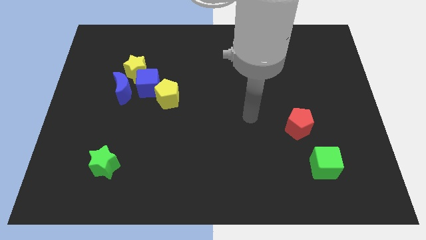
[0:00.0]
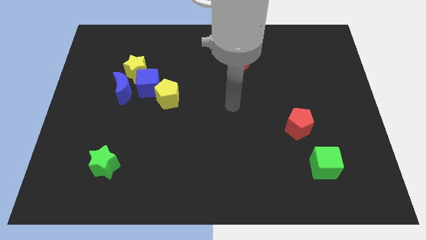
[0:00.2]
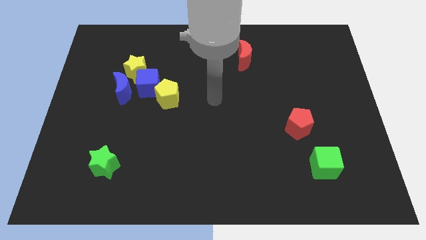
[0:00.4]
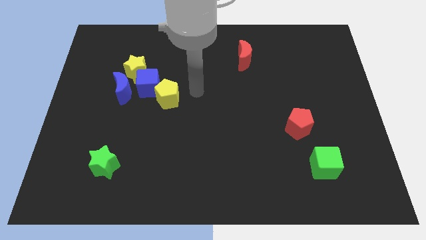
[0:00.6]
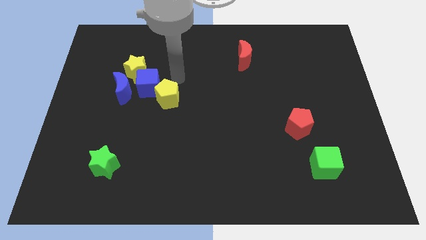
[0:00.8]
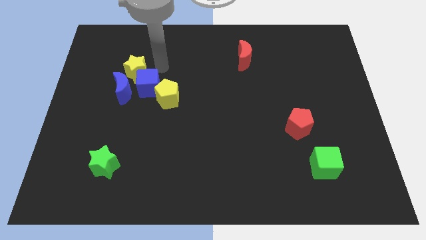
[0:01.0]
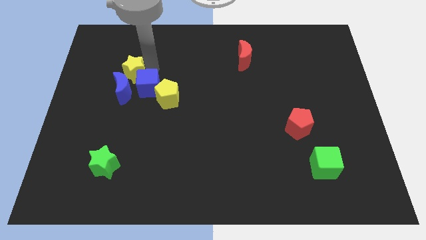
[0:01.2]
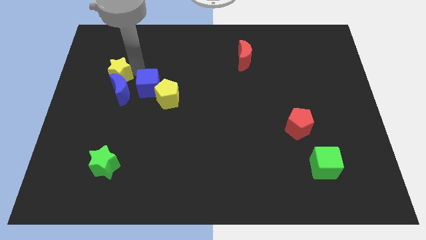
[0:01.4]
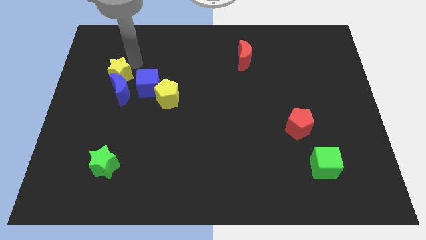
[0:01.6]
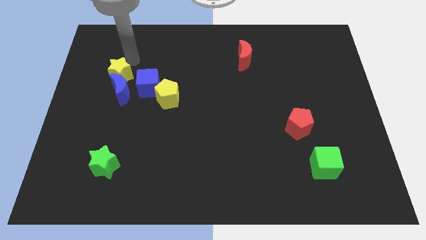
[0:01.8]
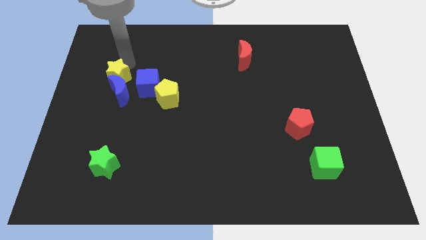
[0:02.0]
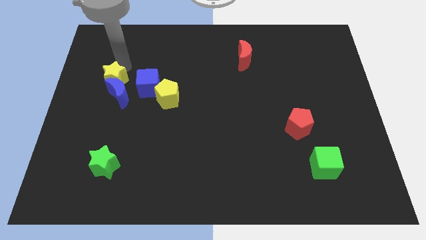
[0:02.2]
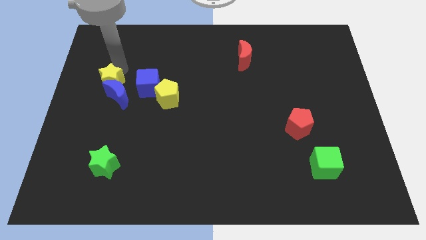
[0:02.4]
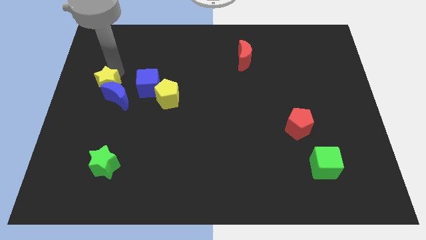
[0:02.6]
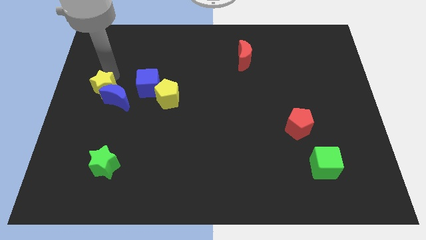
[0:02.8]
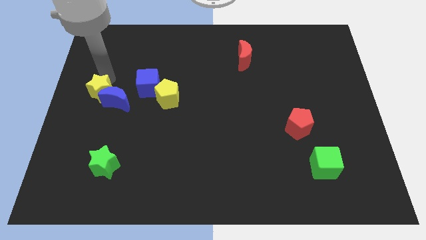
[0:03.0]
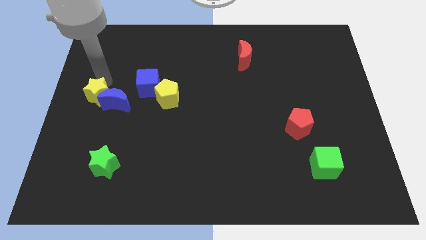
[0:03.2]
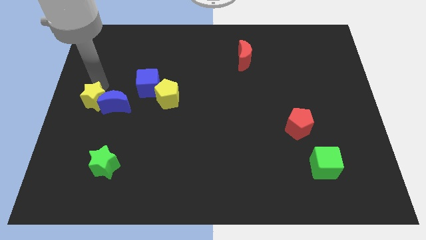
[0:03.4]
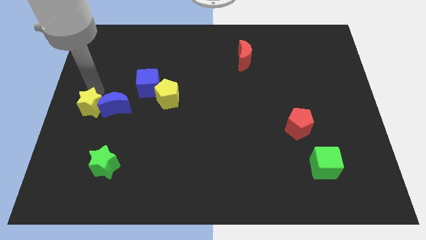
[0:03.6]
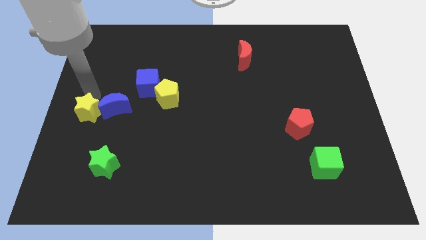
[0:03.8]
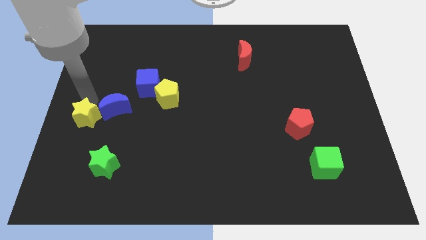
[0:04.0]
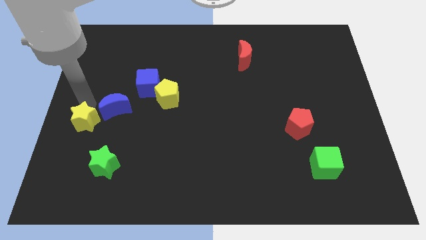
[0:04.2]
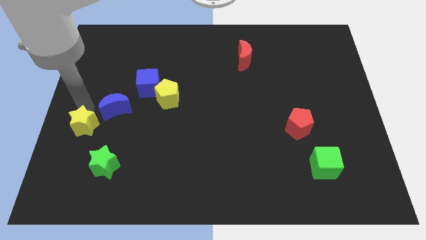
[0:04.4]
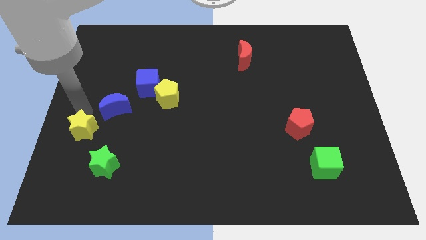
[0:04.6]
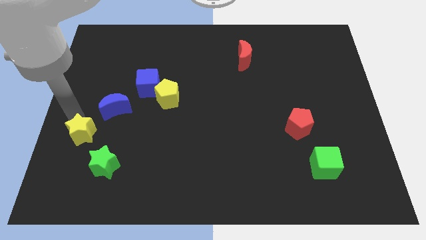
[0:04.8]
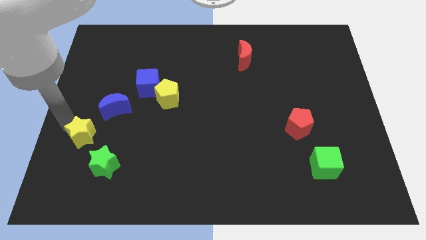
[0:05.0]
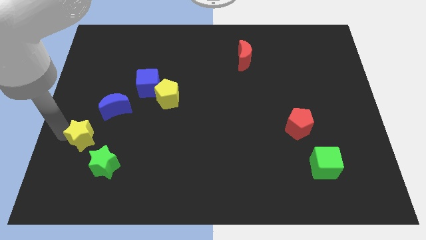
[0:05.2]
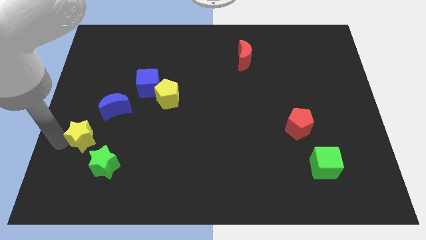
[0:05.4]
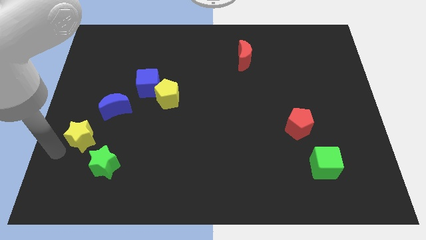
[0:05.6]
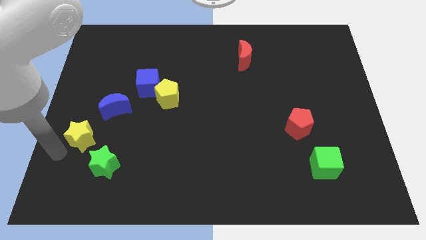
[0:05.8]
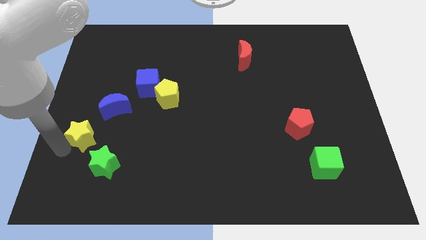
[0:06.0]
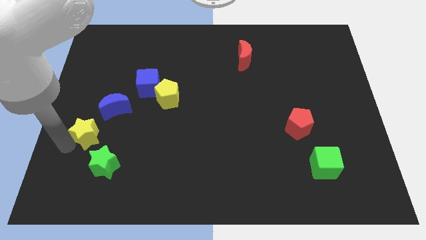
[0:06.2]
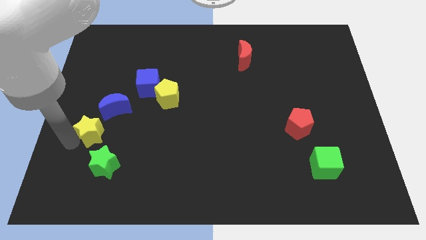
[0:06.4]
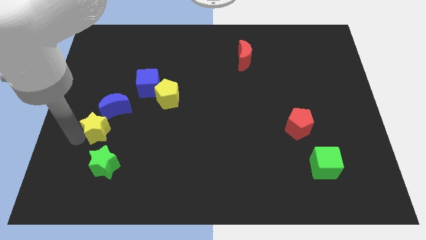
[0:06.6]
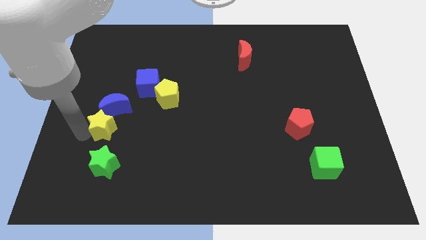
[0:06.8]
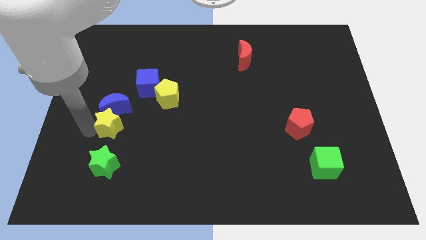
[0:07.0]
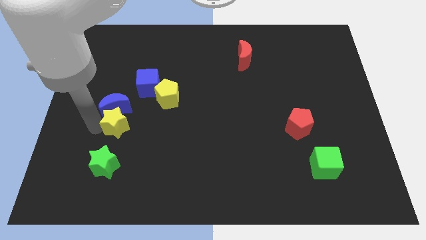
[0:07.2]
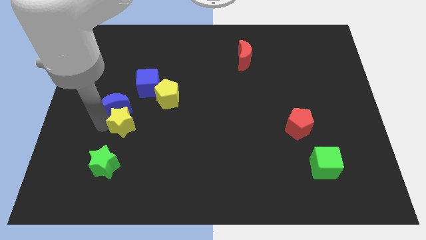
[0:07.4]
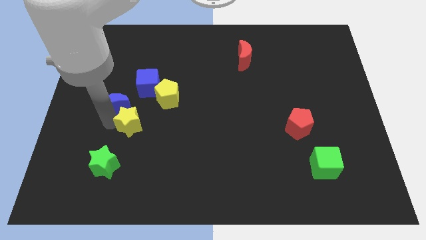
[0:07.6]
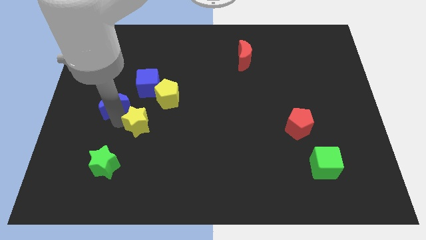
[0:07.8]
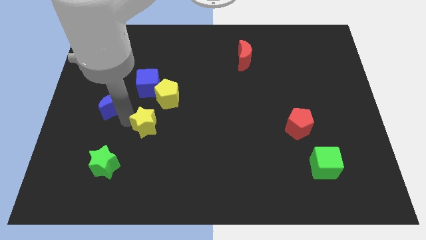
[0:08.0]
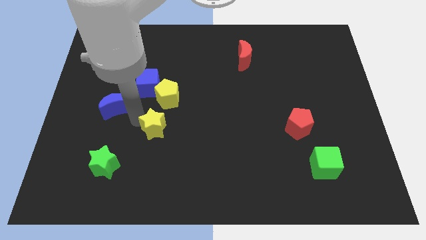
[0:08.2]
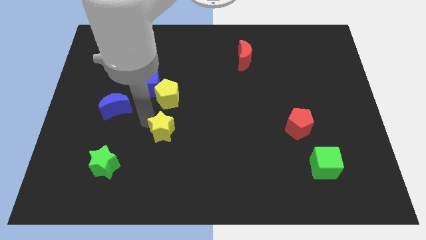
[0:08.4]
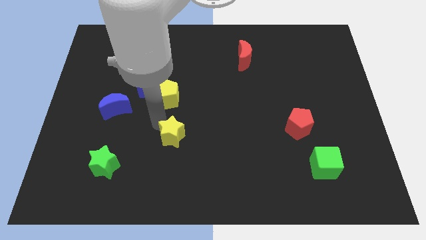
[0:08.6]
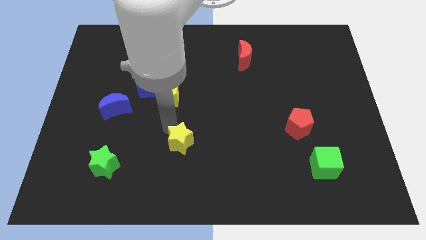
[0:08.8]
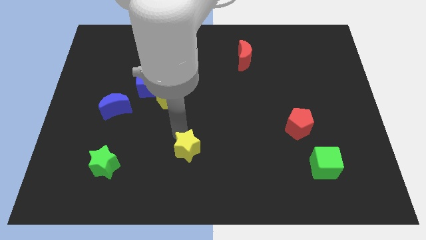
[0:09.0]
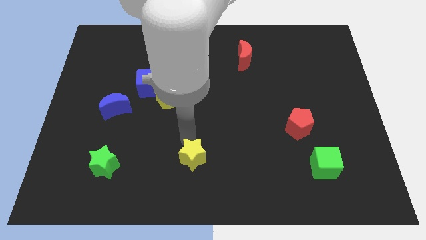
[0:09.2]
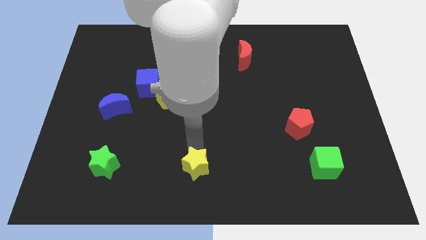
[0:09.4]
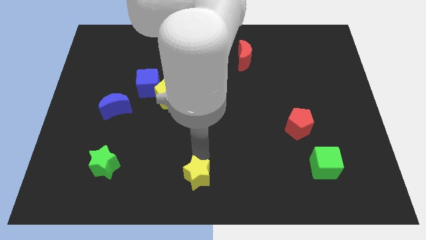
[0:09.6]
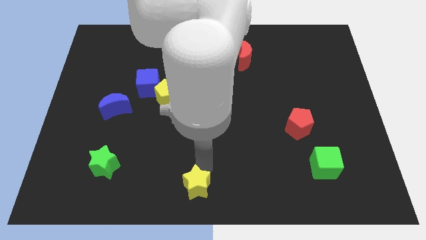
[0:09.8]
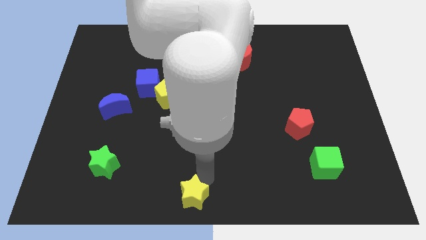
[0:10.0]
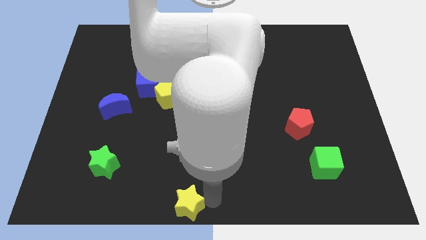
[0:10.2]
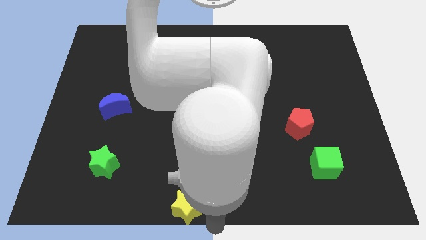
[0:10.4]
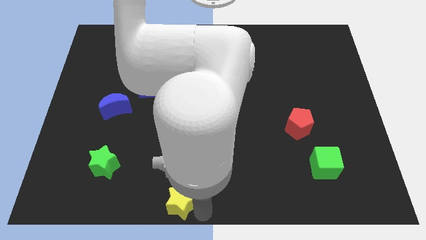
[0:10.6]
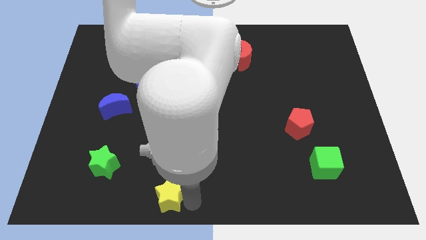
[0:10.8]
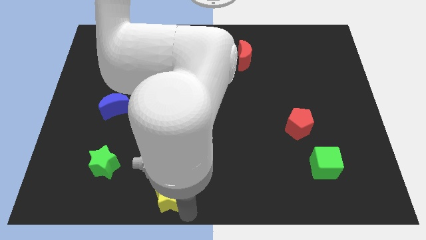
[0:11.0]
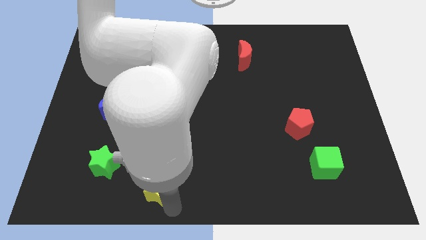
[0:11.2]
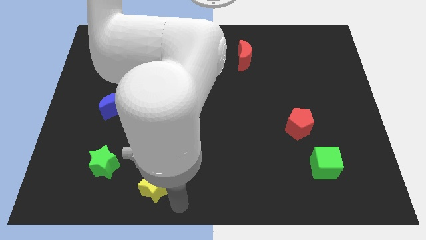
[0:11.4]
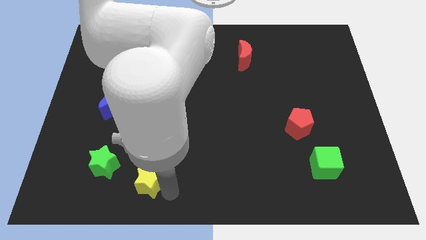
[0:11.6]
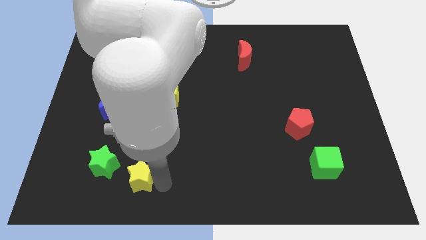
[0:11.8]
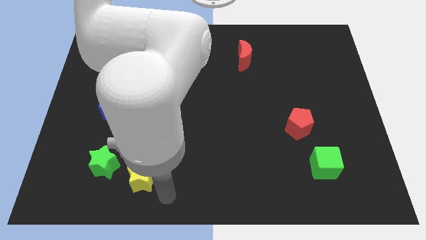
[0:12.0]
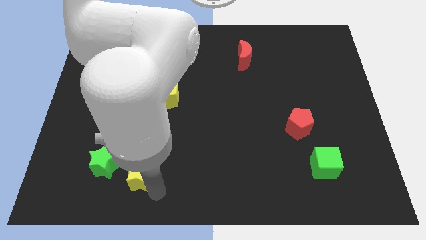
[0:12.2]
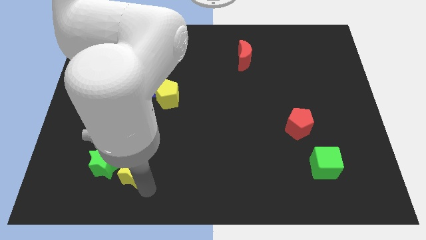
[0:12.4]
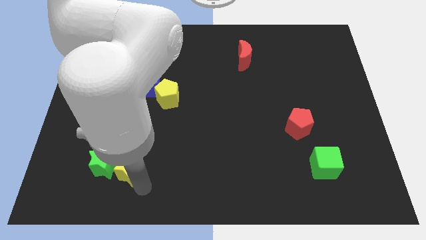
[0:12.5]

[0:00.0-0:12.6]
put the yellow star to the green star

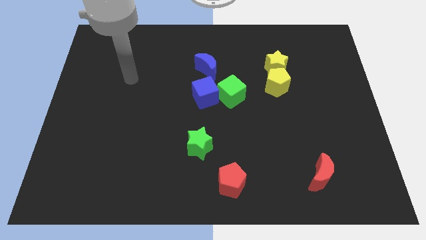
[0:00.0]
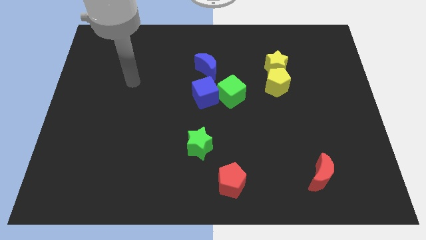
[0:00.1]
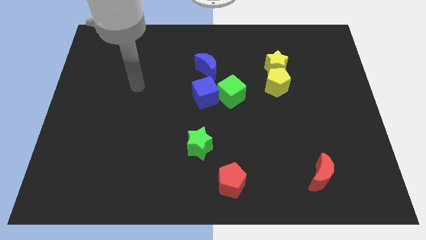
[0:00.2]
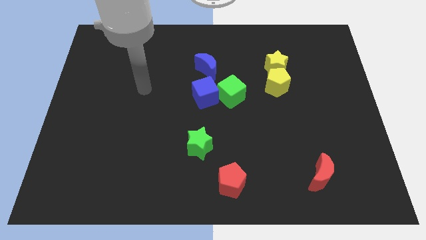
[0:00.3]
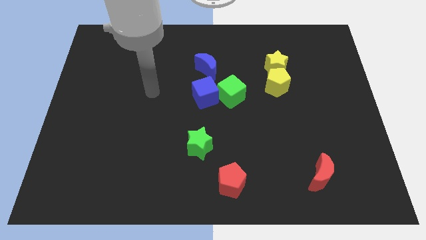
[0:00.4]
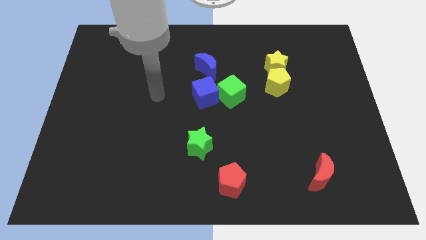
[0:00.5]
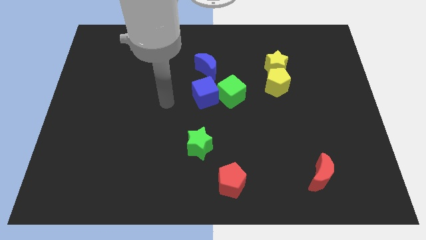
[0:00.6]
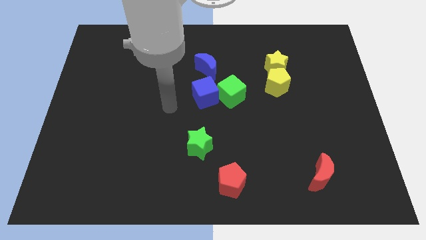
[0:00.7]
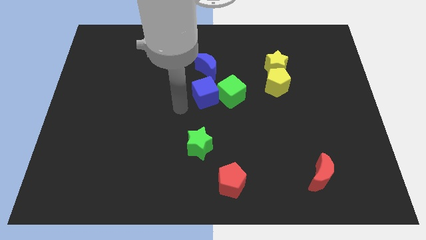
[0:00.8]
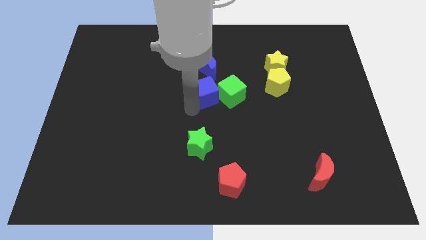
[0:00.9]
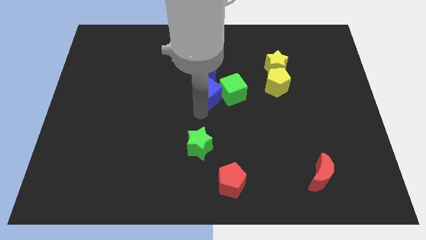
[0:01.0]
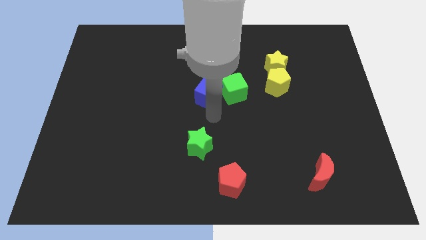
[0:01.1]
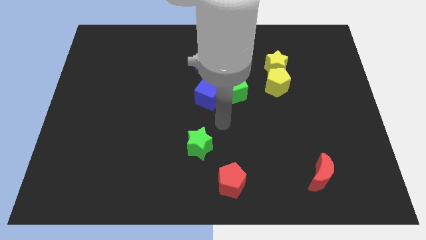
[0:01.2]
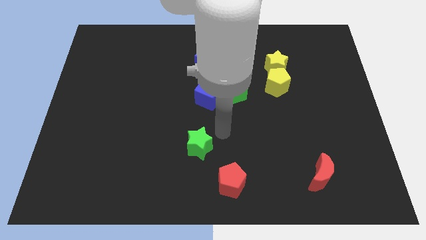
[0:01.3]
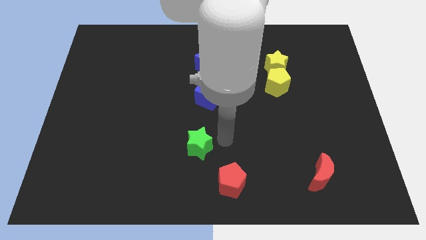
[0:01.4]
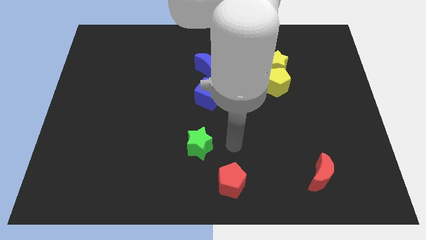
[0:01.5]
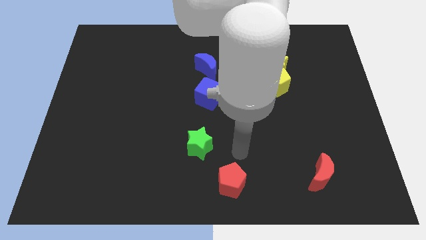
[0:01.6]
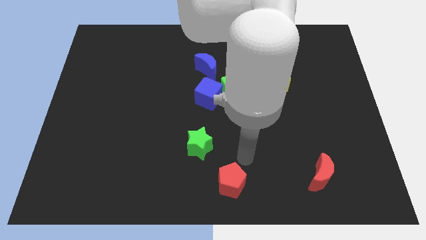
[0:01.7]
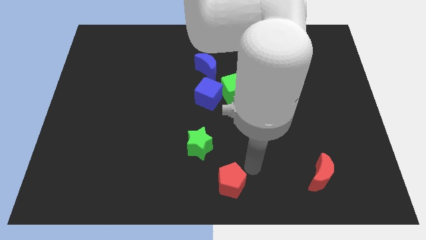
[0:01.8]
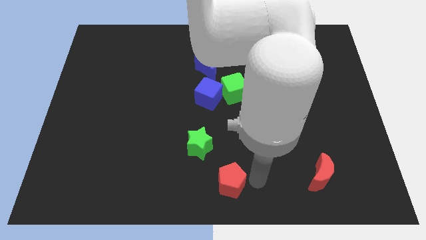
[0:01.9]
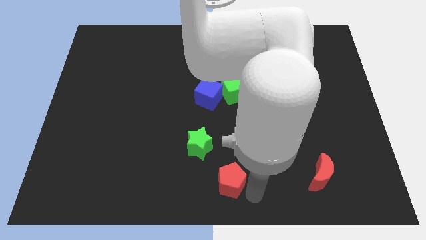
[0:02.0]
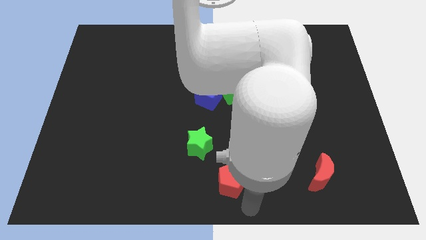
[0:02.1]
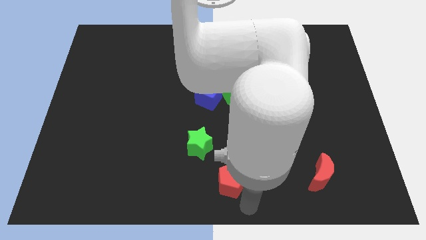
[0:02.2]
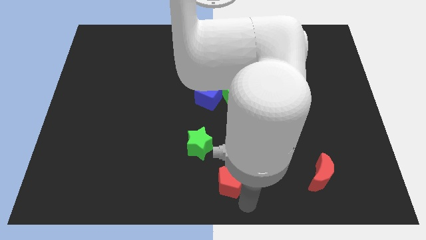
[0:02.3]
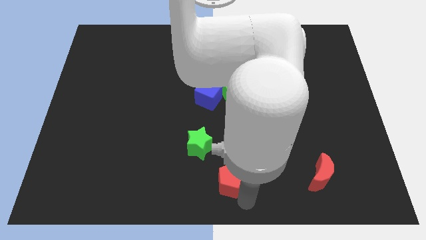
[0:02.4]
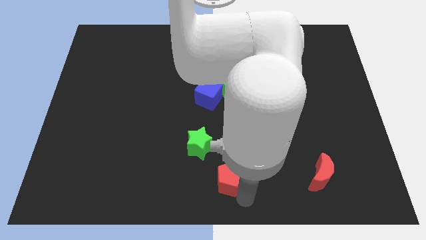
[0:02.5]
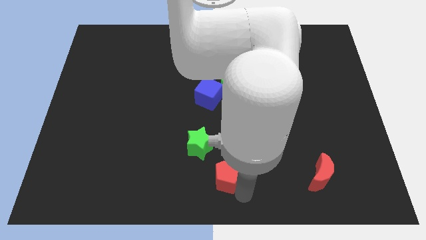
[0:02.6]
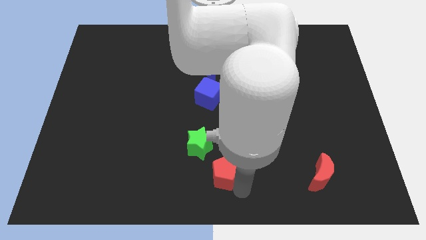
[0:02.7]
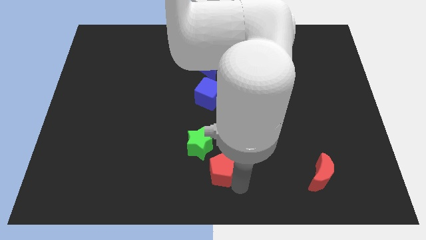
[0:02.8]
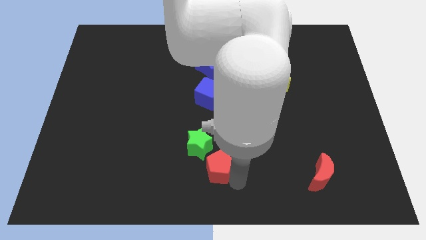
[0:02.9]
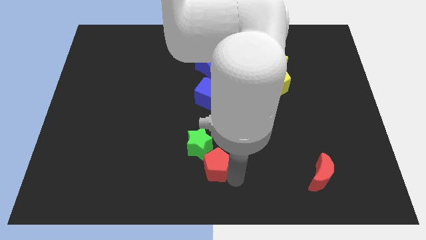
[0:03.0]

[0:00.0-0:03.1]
slide the red pentagon close to the green star
